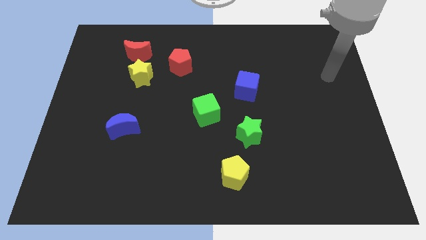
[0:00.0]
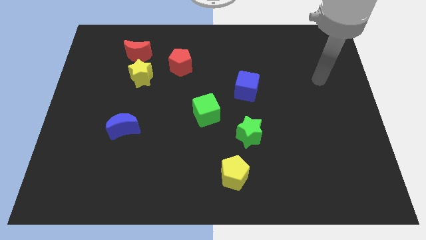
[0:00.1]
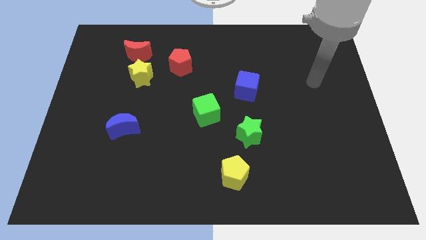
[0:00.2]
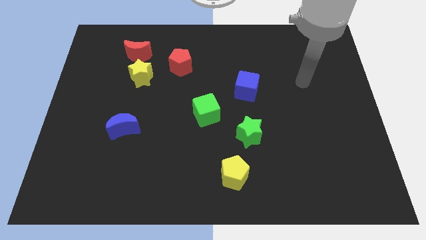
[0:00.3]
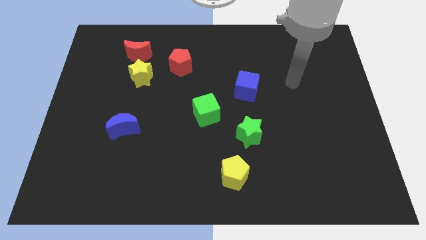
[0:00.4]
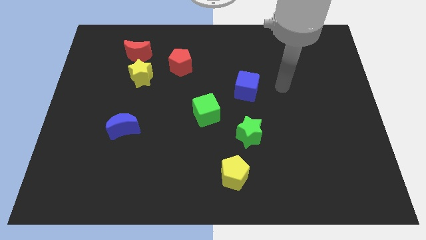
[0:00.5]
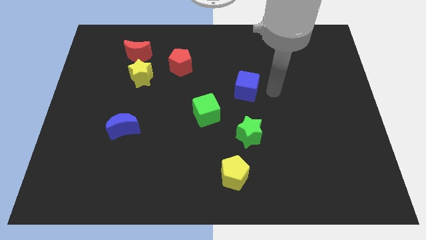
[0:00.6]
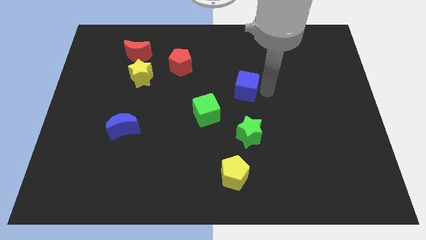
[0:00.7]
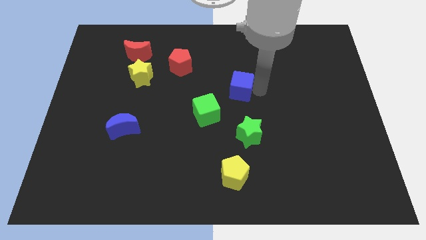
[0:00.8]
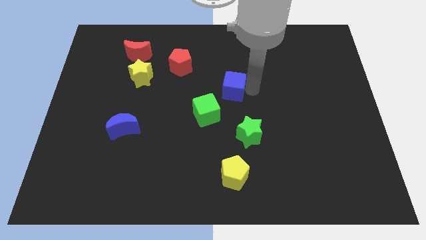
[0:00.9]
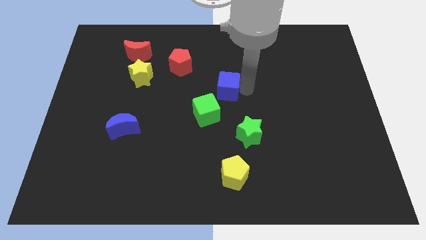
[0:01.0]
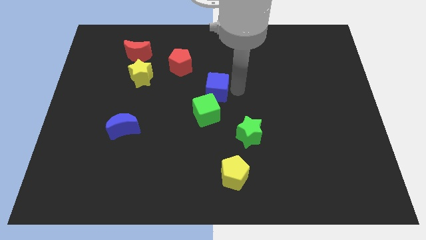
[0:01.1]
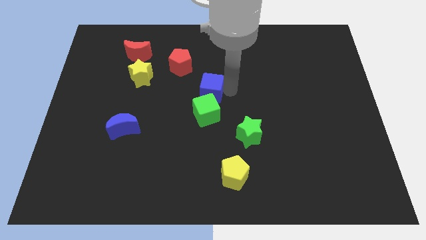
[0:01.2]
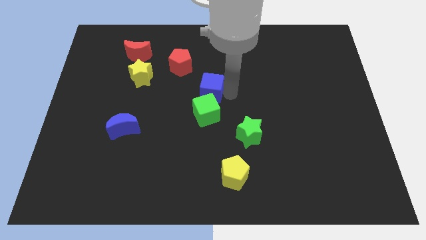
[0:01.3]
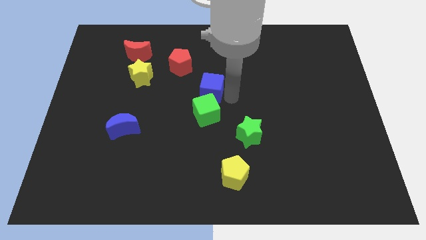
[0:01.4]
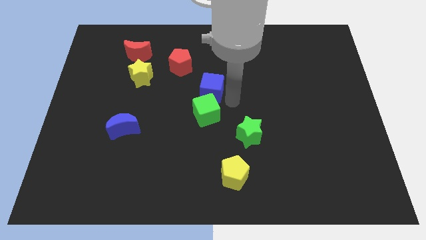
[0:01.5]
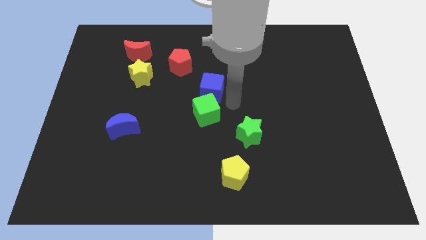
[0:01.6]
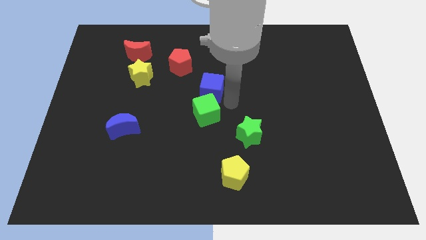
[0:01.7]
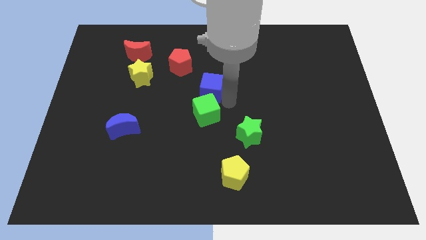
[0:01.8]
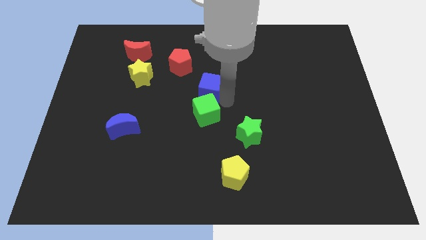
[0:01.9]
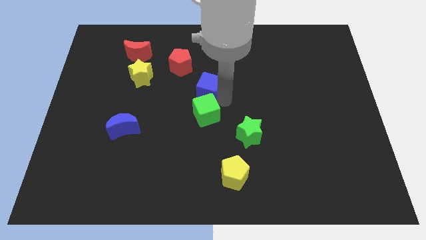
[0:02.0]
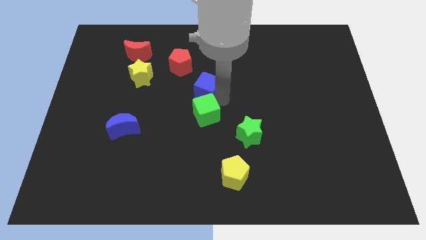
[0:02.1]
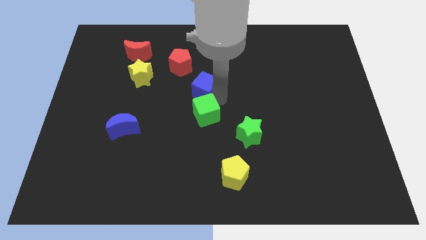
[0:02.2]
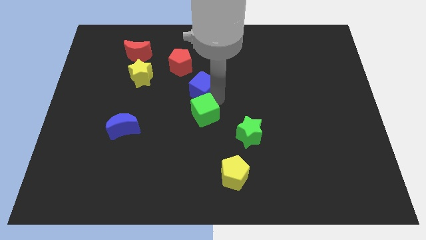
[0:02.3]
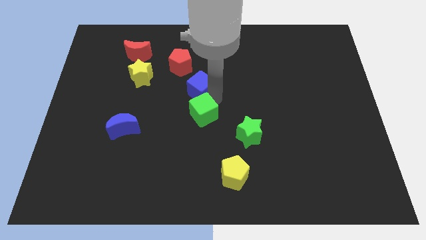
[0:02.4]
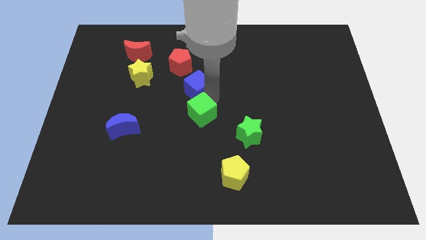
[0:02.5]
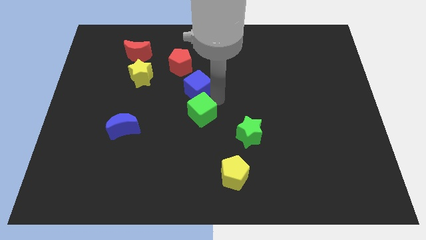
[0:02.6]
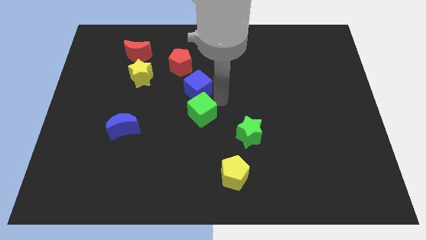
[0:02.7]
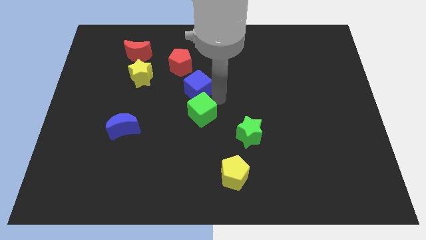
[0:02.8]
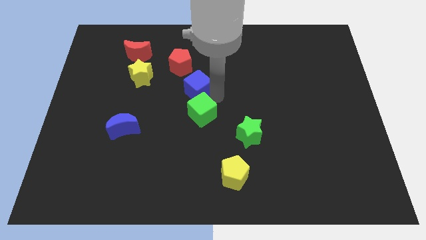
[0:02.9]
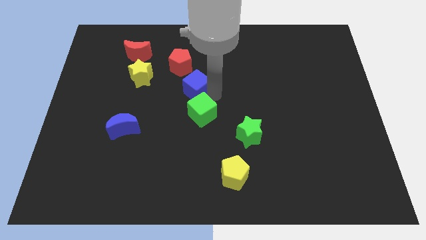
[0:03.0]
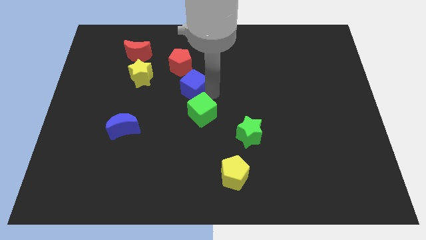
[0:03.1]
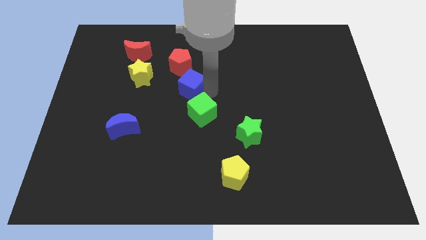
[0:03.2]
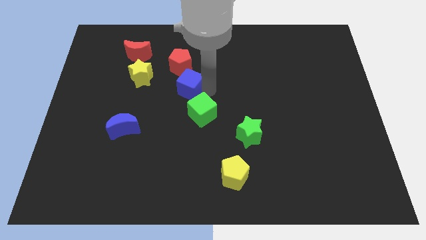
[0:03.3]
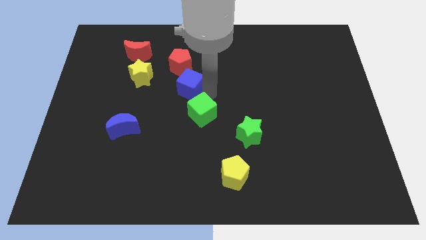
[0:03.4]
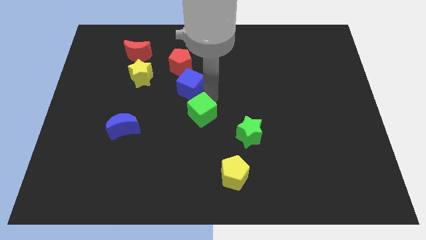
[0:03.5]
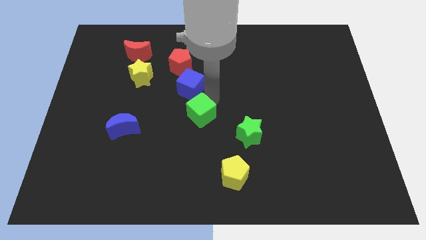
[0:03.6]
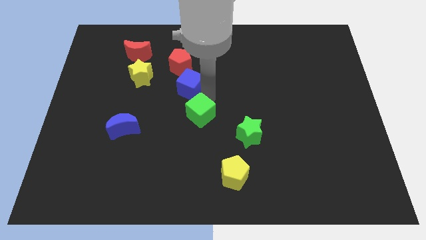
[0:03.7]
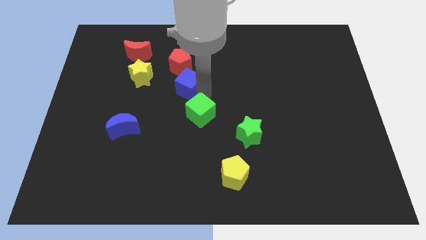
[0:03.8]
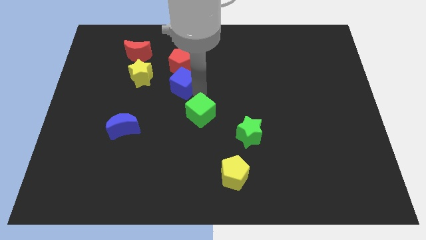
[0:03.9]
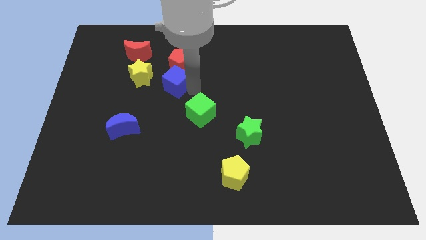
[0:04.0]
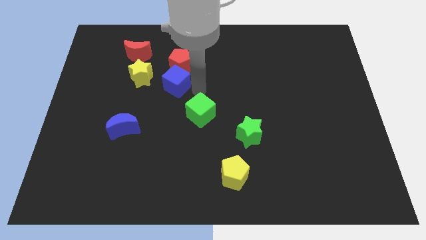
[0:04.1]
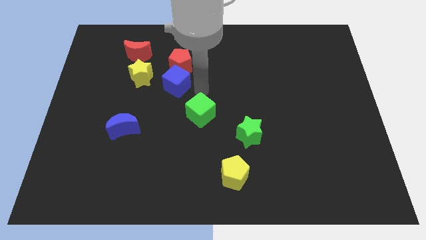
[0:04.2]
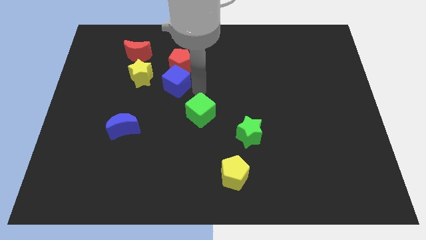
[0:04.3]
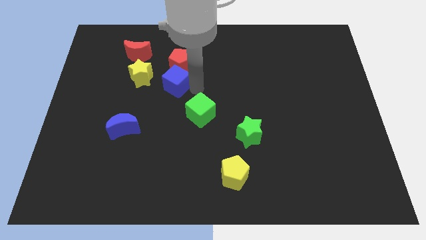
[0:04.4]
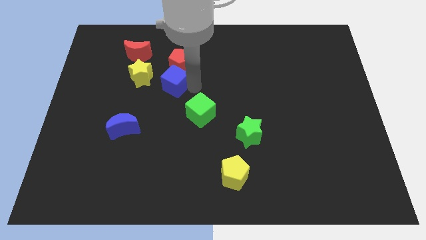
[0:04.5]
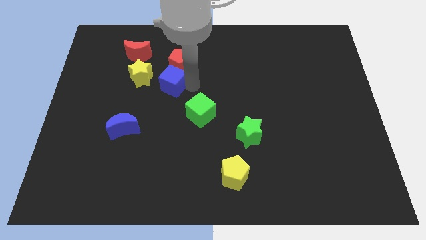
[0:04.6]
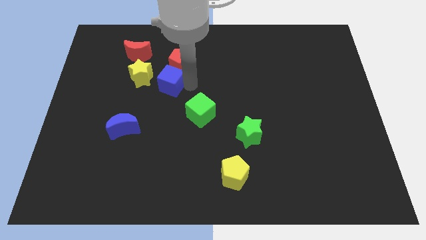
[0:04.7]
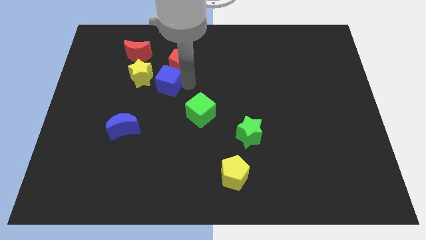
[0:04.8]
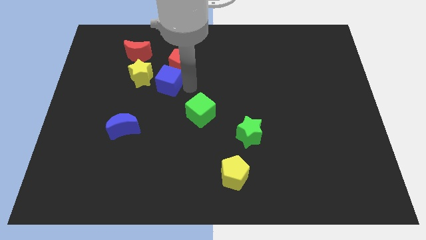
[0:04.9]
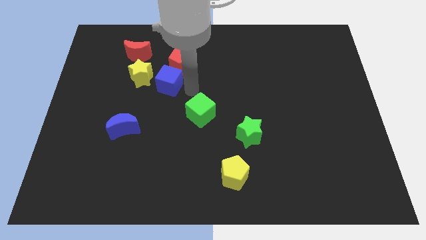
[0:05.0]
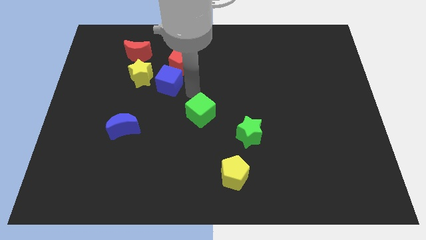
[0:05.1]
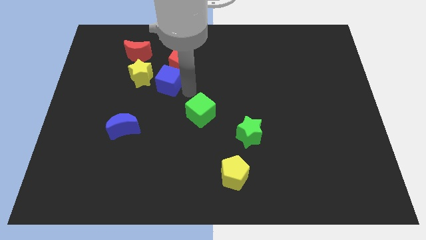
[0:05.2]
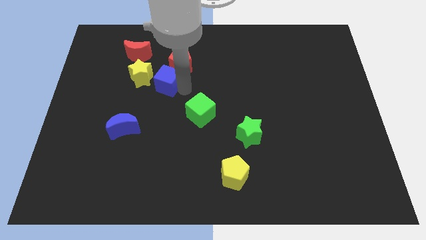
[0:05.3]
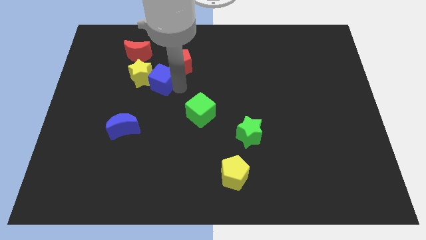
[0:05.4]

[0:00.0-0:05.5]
push the blue cube to the yellow star

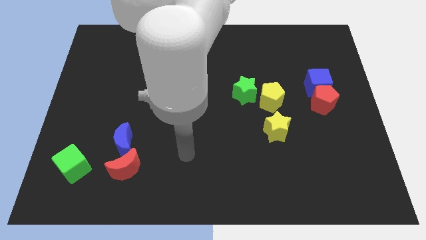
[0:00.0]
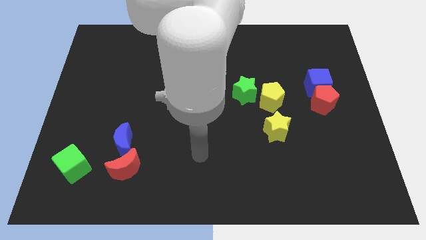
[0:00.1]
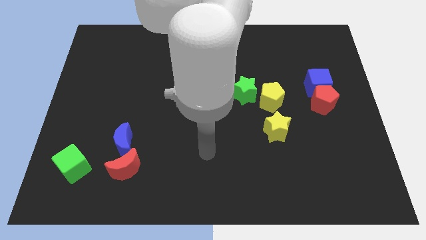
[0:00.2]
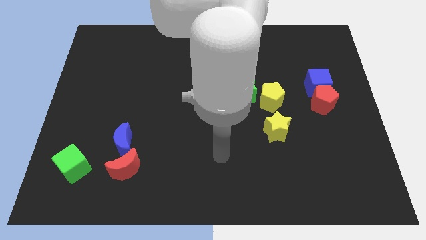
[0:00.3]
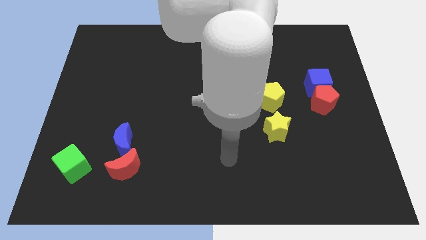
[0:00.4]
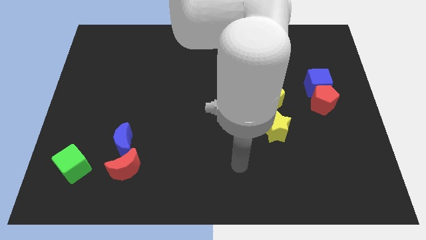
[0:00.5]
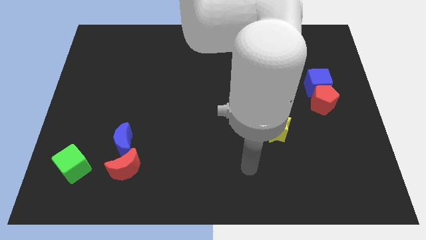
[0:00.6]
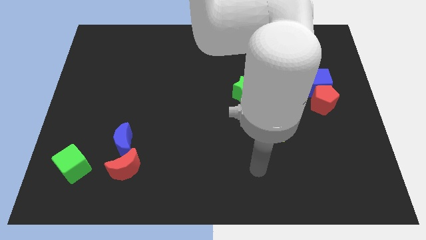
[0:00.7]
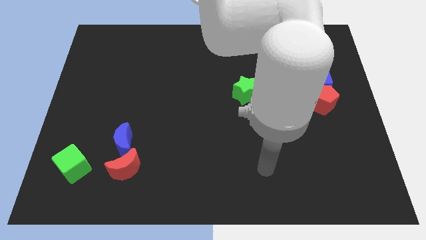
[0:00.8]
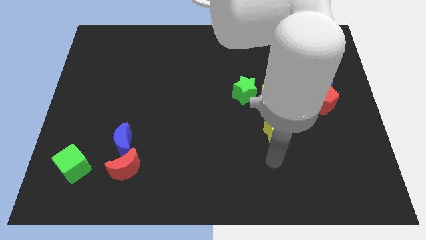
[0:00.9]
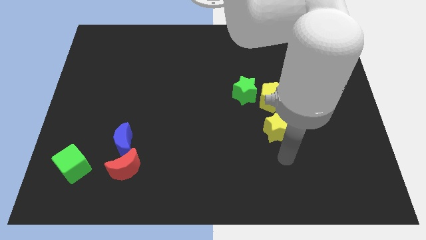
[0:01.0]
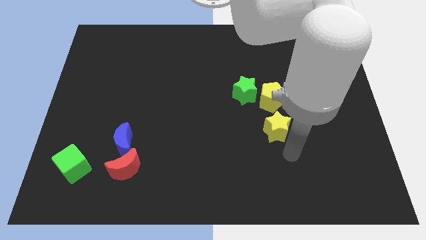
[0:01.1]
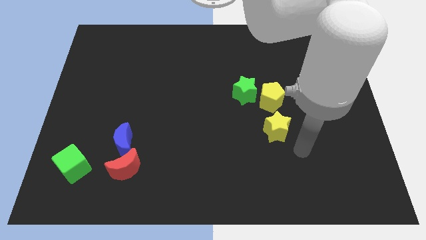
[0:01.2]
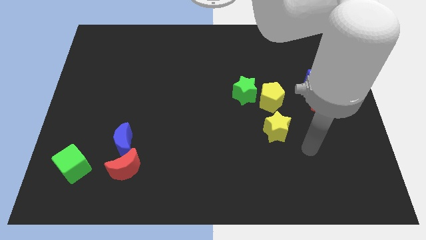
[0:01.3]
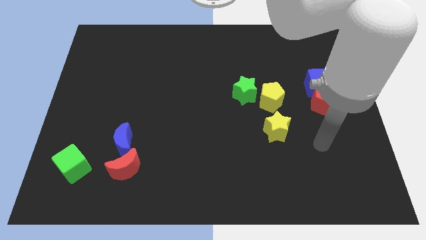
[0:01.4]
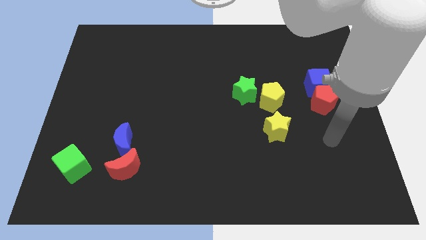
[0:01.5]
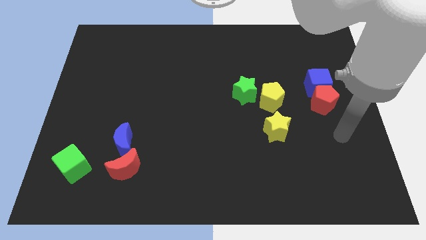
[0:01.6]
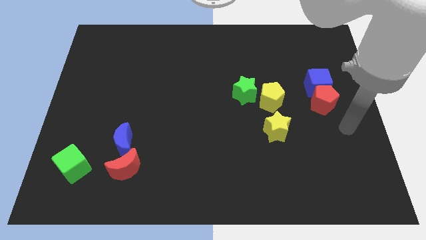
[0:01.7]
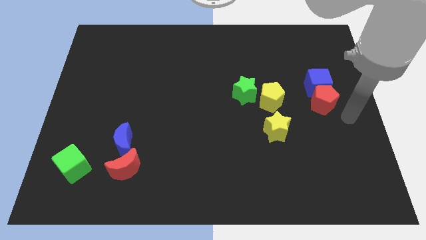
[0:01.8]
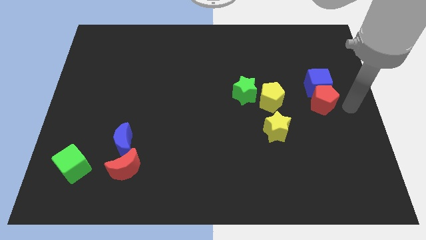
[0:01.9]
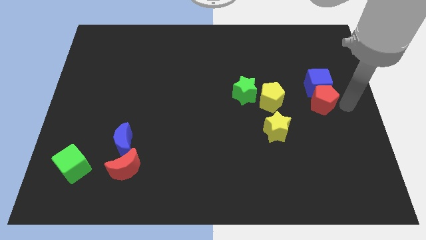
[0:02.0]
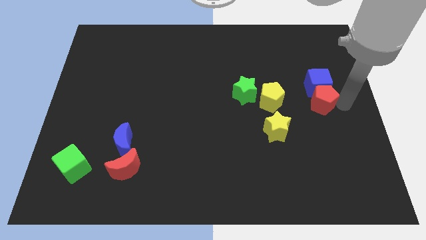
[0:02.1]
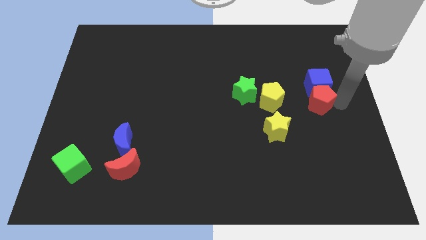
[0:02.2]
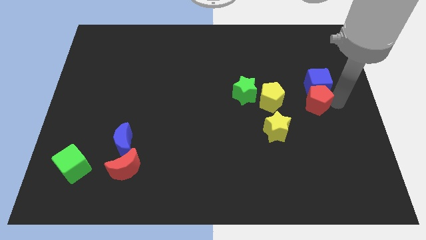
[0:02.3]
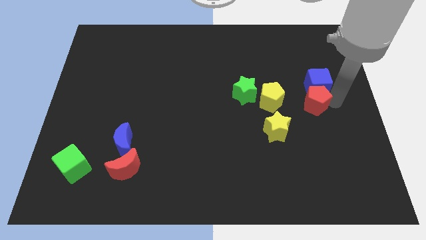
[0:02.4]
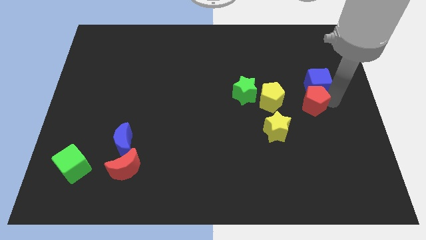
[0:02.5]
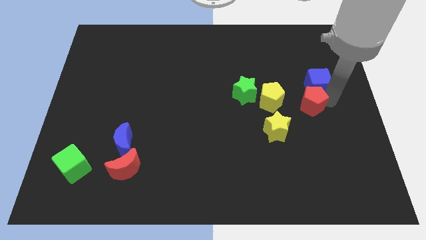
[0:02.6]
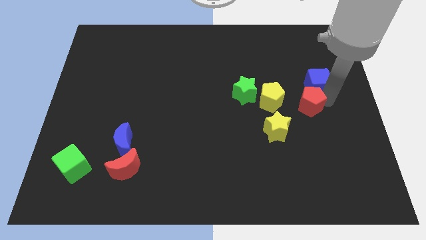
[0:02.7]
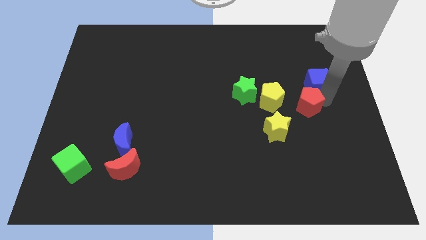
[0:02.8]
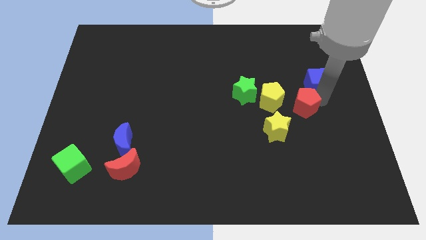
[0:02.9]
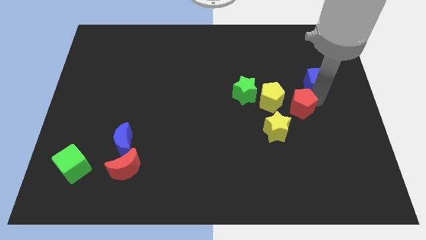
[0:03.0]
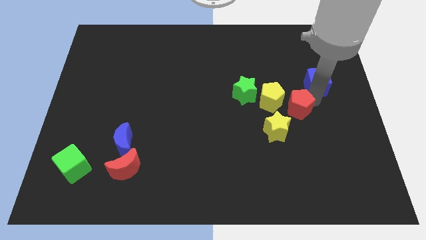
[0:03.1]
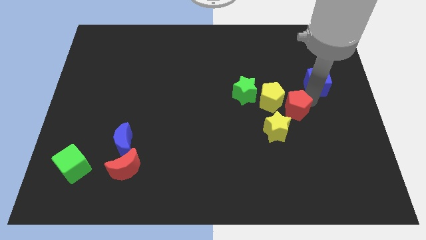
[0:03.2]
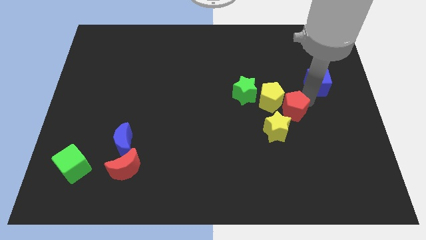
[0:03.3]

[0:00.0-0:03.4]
push the red pentagon towards the yellow pentagon
